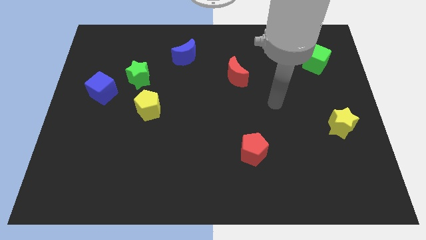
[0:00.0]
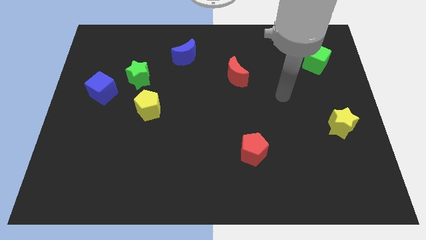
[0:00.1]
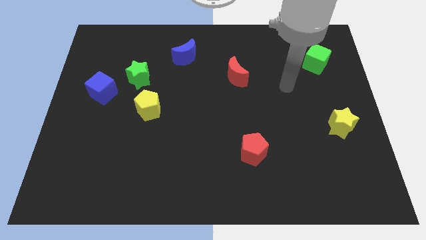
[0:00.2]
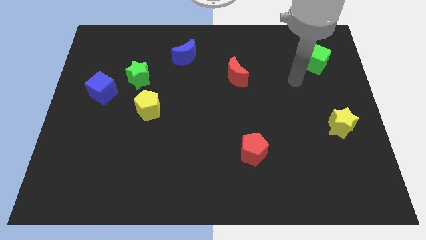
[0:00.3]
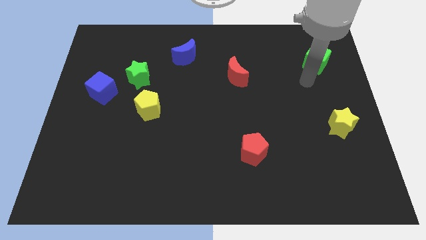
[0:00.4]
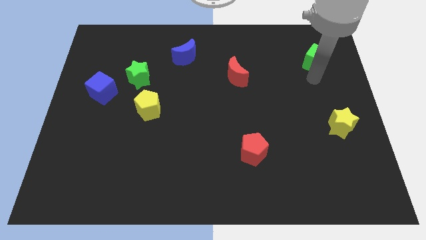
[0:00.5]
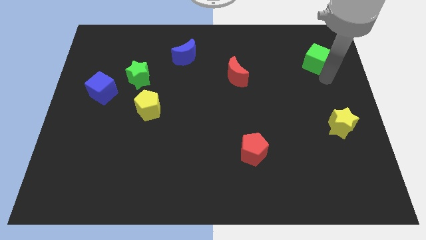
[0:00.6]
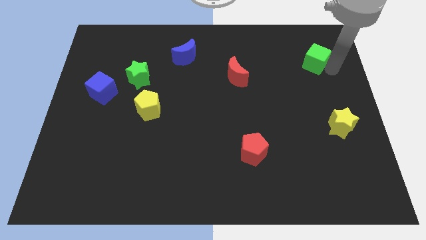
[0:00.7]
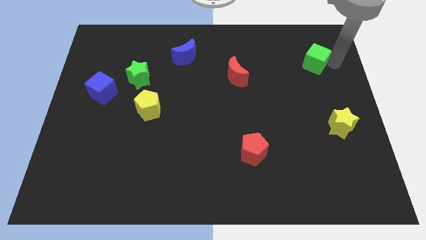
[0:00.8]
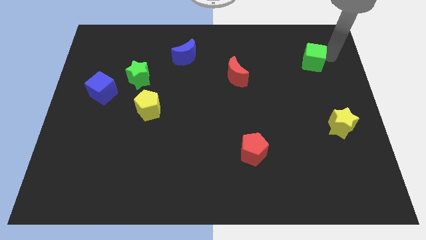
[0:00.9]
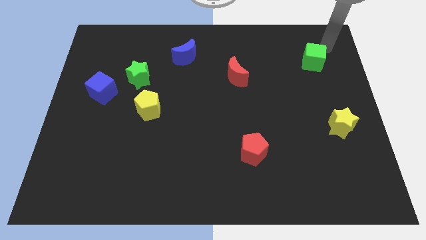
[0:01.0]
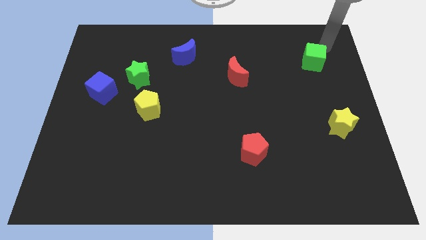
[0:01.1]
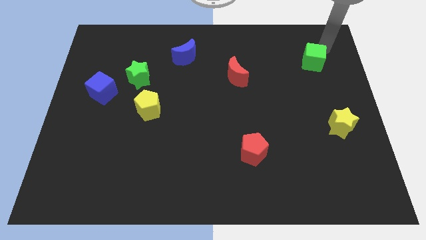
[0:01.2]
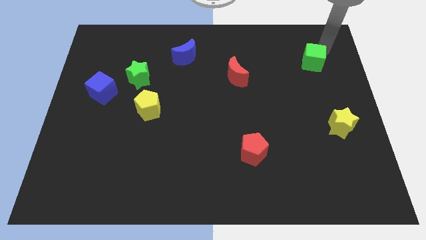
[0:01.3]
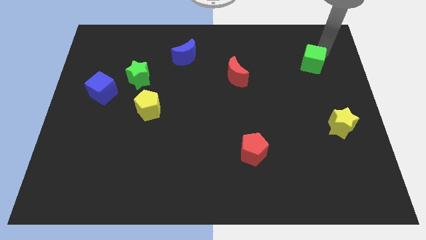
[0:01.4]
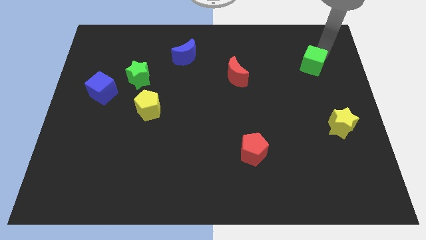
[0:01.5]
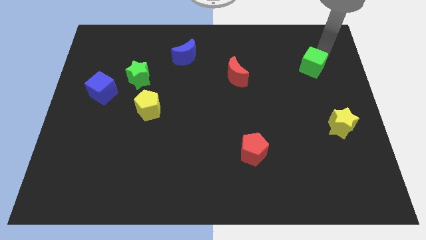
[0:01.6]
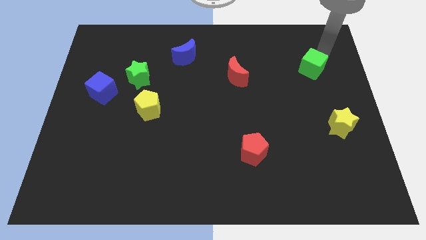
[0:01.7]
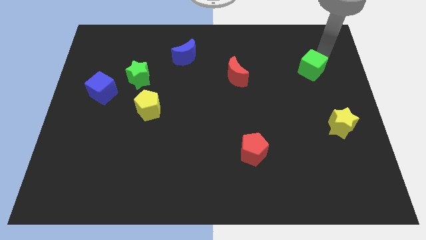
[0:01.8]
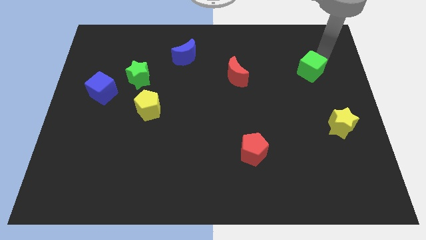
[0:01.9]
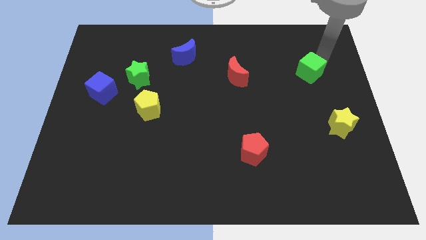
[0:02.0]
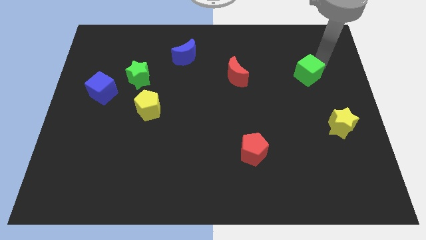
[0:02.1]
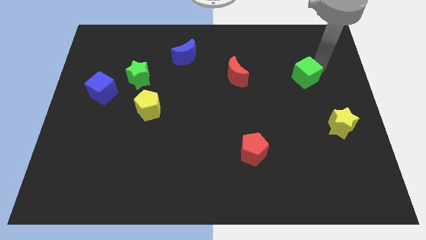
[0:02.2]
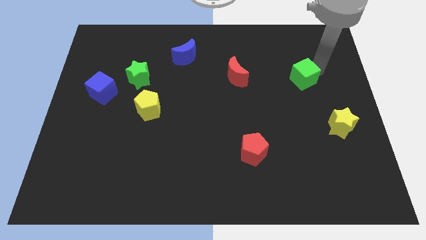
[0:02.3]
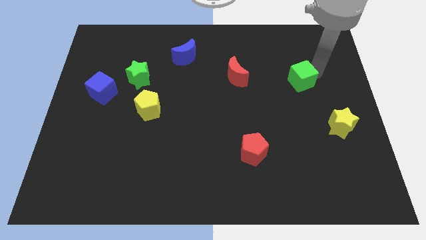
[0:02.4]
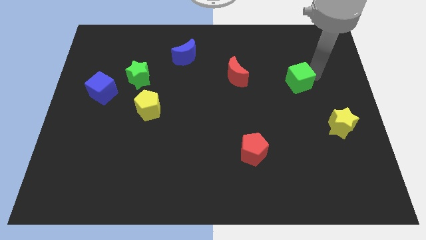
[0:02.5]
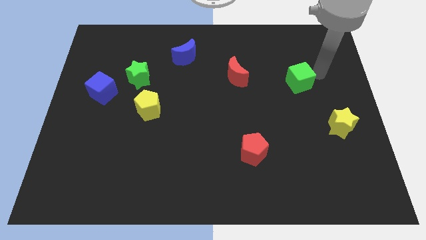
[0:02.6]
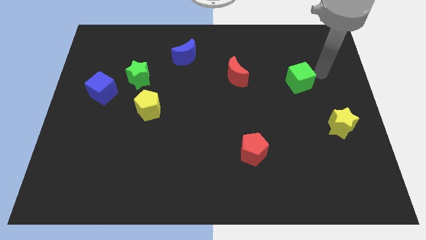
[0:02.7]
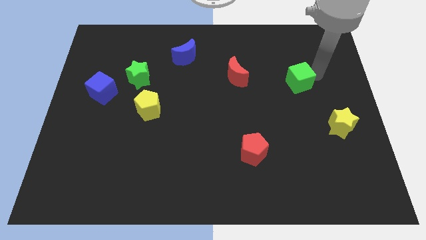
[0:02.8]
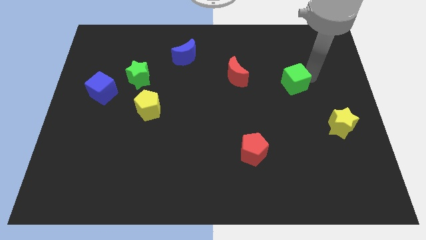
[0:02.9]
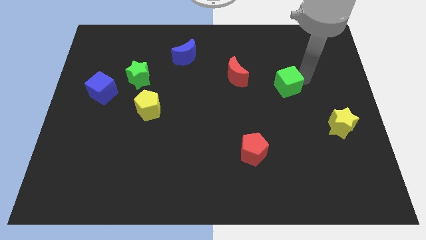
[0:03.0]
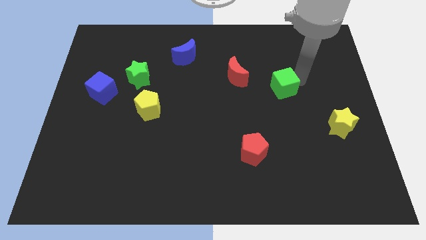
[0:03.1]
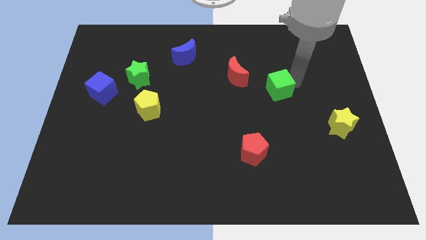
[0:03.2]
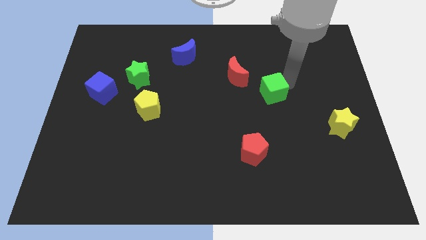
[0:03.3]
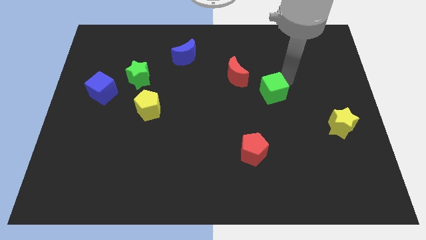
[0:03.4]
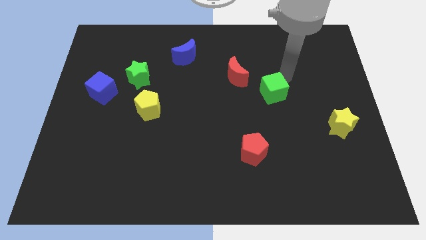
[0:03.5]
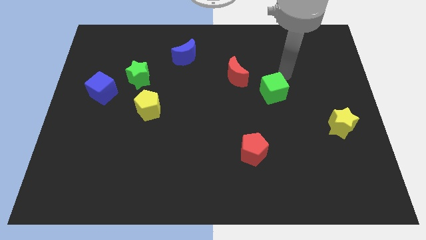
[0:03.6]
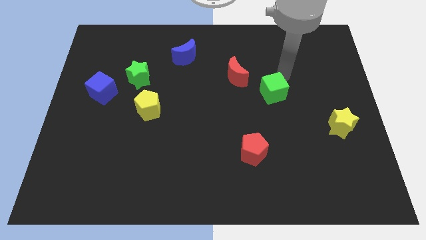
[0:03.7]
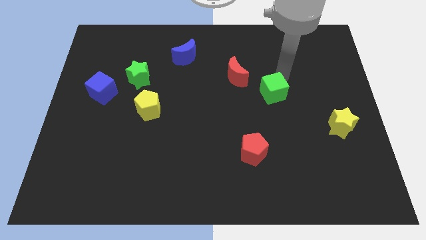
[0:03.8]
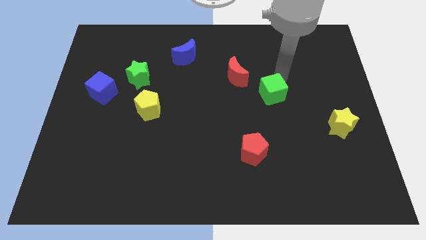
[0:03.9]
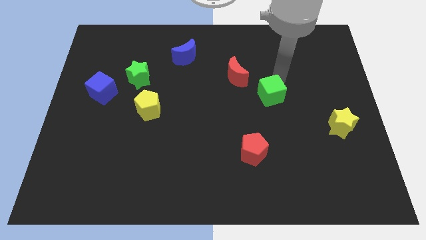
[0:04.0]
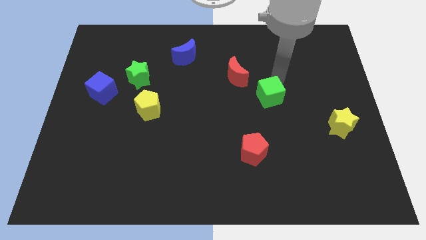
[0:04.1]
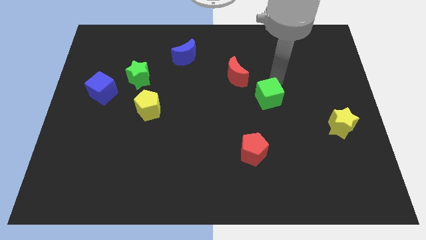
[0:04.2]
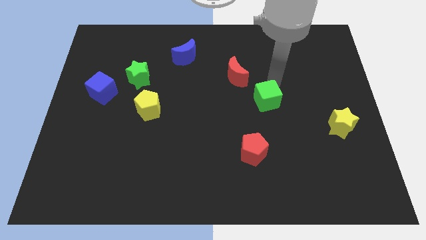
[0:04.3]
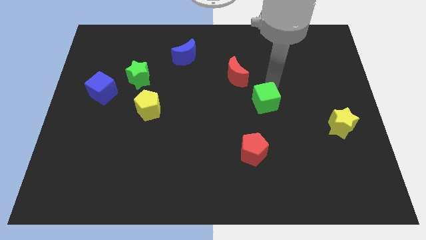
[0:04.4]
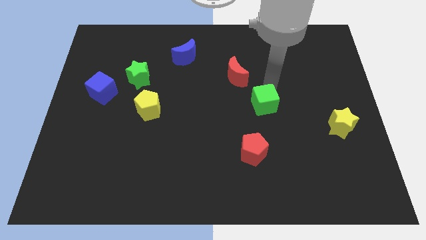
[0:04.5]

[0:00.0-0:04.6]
move the green cube down and to the left

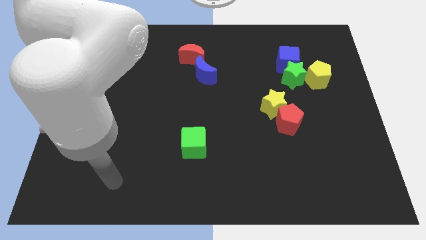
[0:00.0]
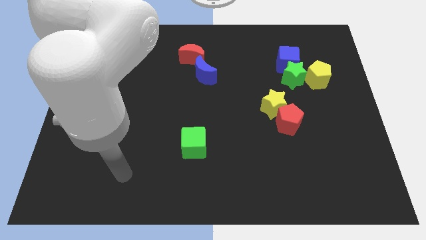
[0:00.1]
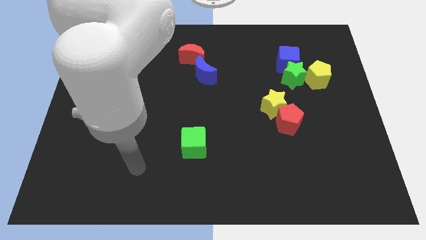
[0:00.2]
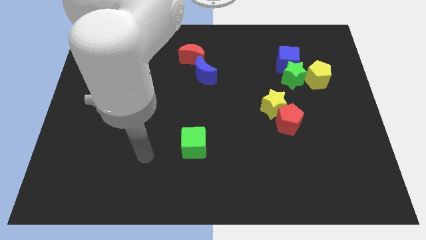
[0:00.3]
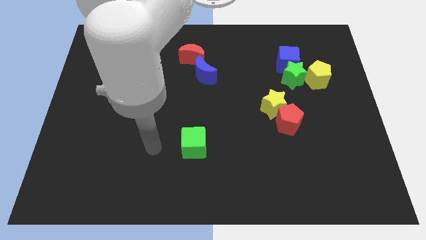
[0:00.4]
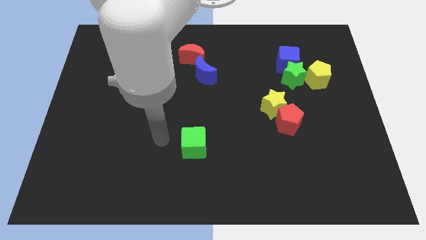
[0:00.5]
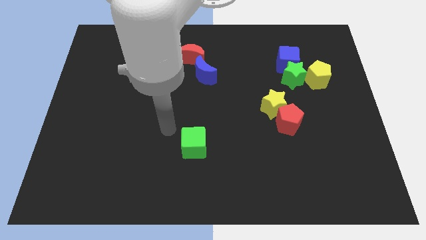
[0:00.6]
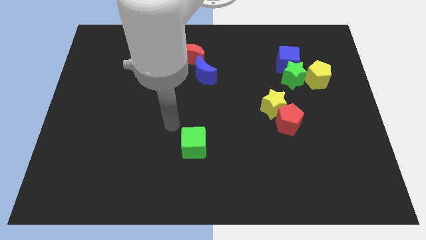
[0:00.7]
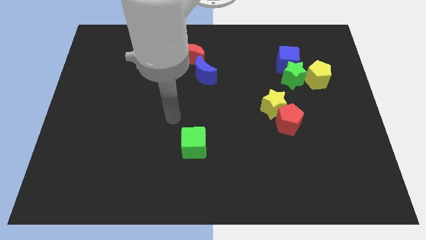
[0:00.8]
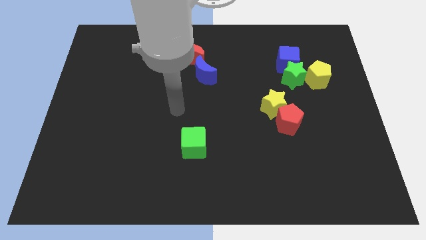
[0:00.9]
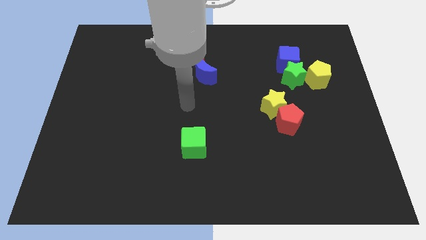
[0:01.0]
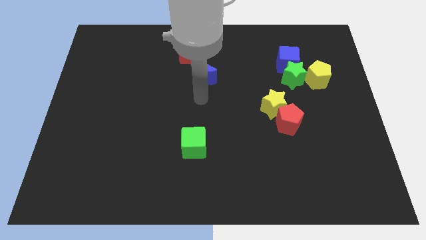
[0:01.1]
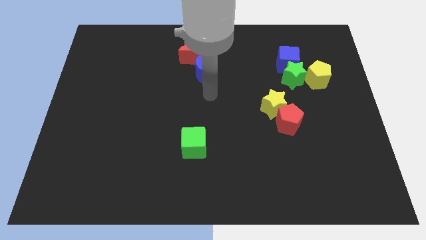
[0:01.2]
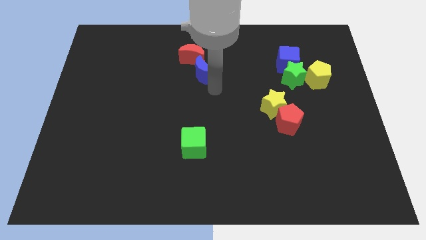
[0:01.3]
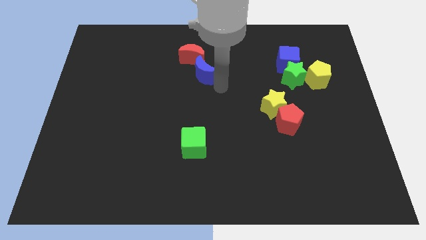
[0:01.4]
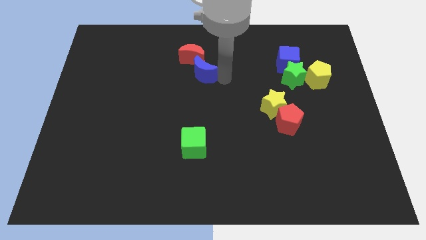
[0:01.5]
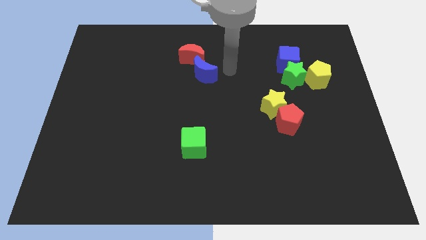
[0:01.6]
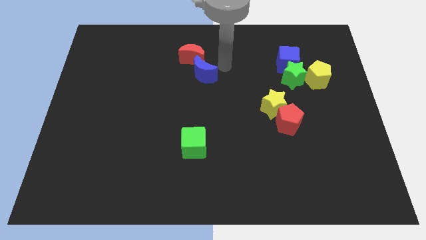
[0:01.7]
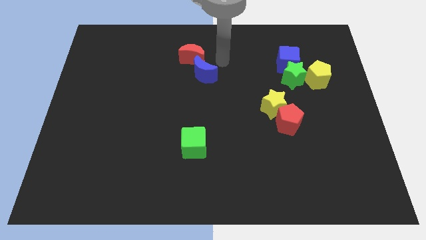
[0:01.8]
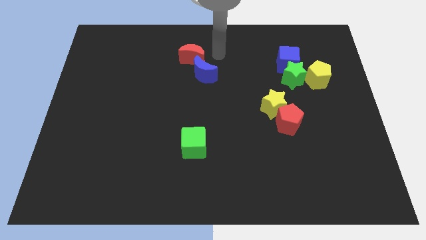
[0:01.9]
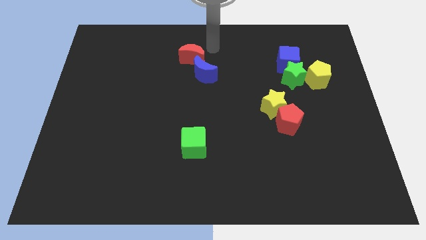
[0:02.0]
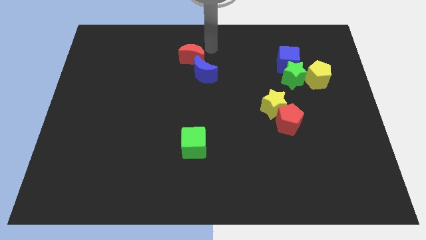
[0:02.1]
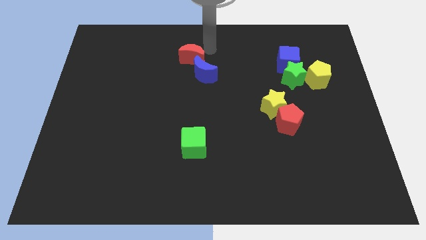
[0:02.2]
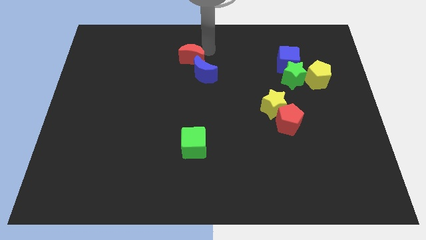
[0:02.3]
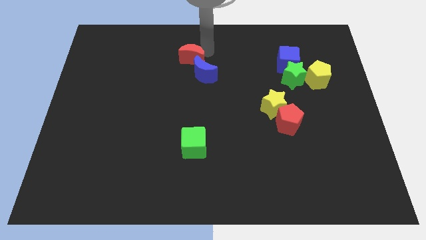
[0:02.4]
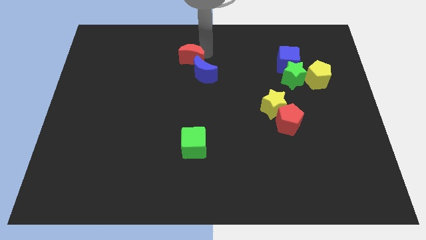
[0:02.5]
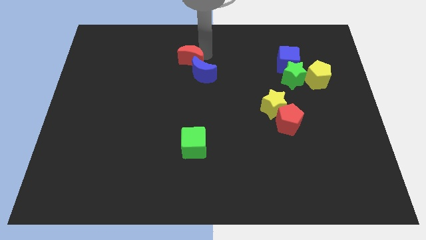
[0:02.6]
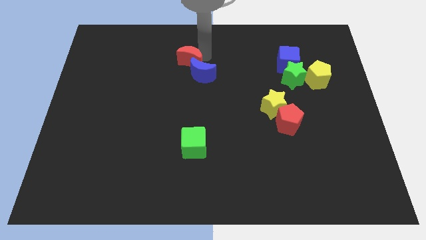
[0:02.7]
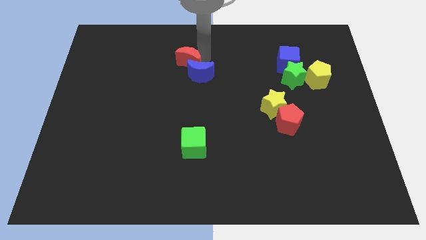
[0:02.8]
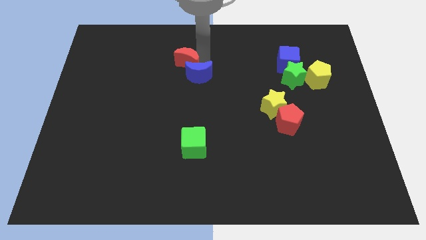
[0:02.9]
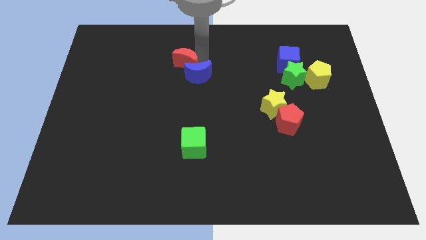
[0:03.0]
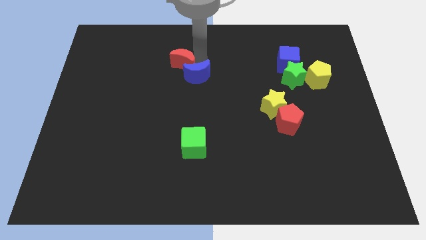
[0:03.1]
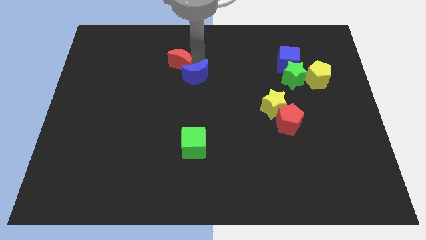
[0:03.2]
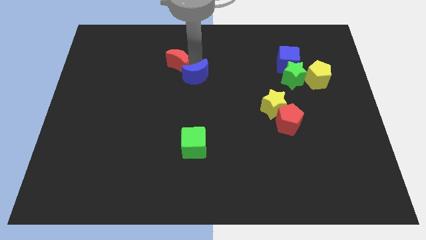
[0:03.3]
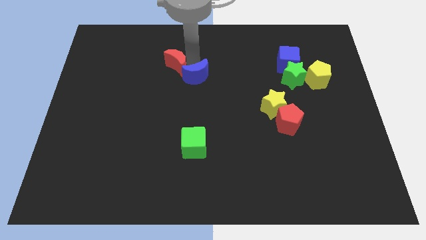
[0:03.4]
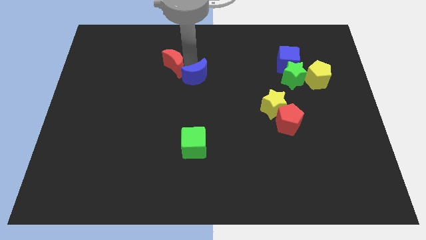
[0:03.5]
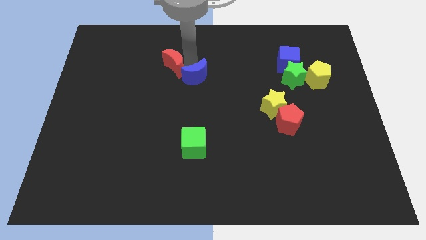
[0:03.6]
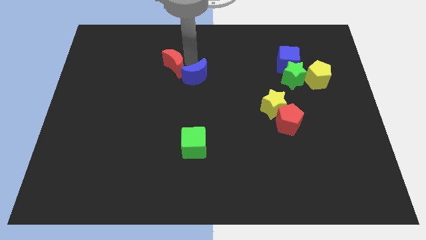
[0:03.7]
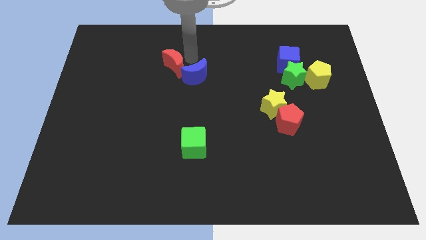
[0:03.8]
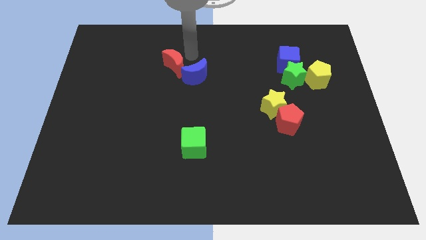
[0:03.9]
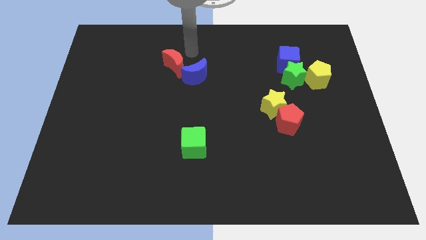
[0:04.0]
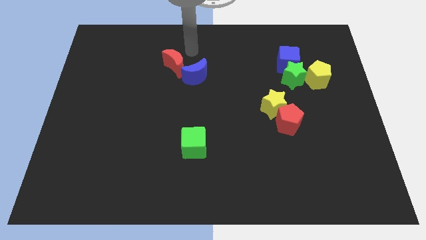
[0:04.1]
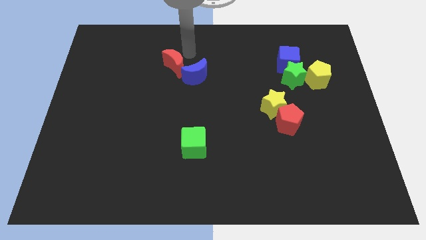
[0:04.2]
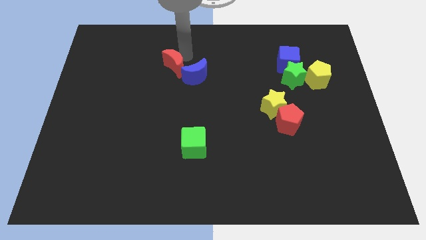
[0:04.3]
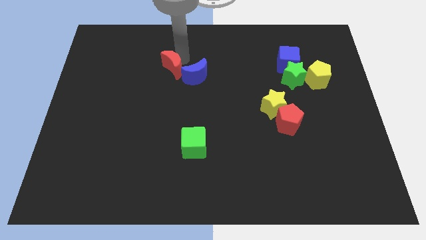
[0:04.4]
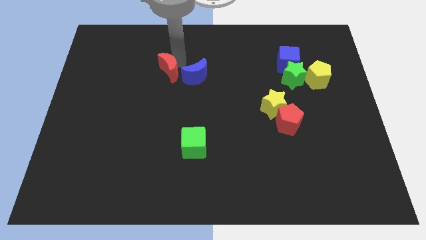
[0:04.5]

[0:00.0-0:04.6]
push the red moon a little bit downwards and to the left diagonally
